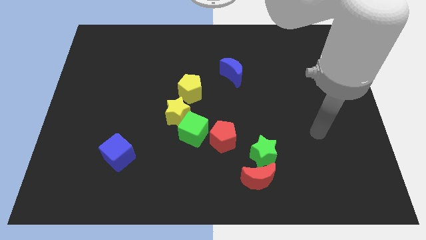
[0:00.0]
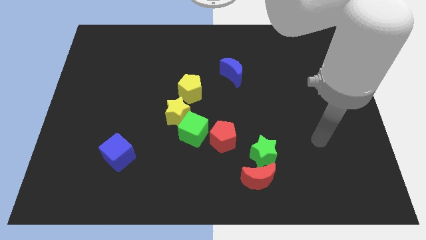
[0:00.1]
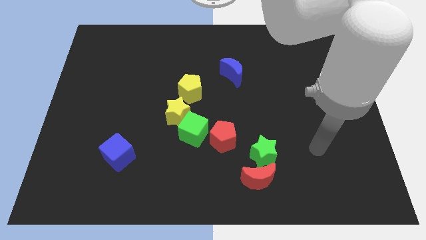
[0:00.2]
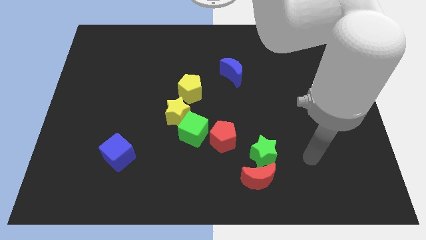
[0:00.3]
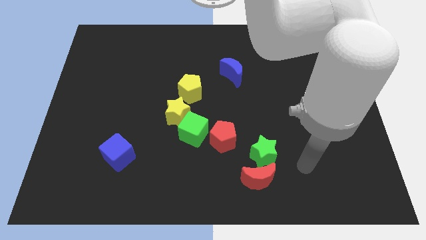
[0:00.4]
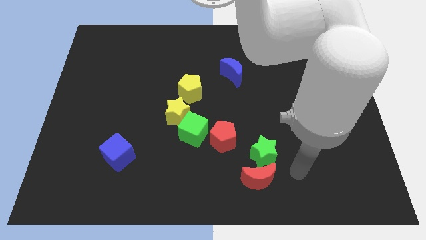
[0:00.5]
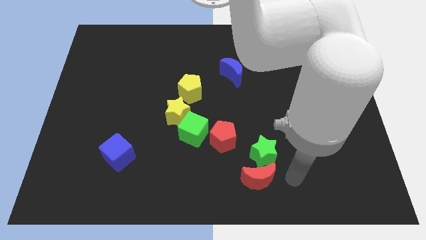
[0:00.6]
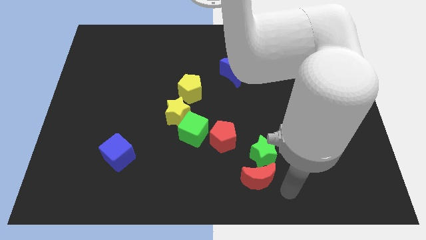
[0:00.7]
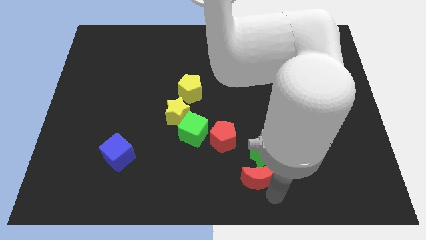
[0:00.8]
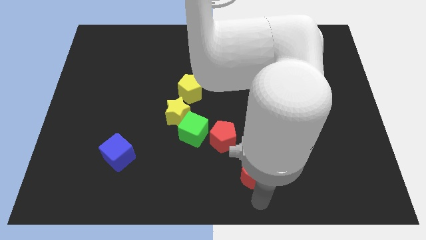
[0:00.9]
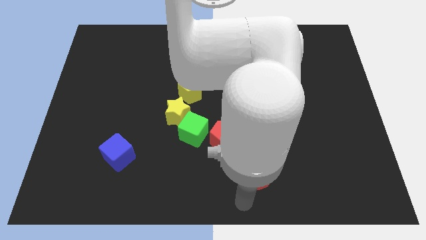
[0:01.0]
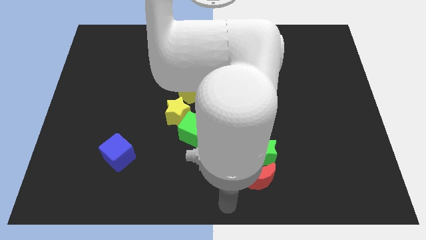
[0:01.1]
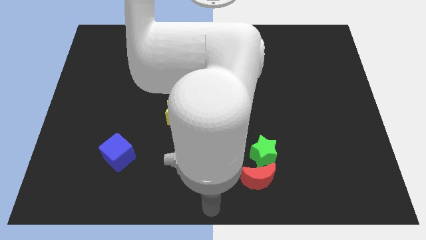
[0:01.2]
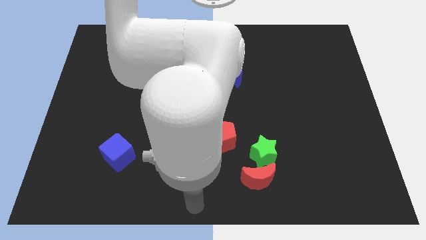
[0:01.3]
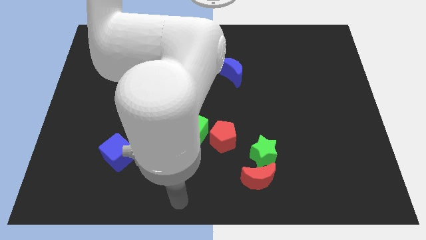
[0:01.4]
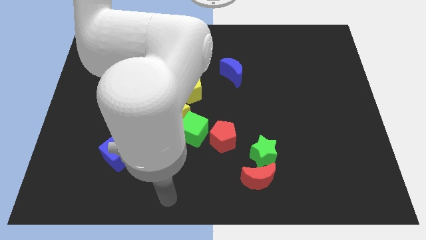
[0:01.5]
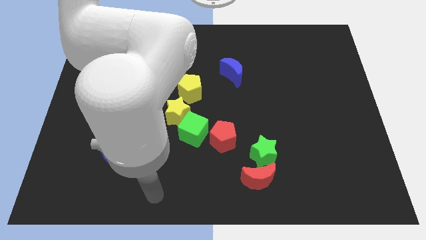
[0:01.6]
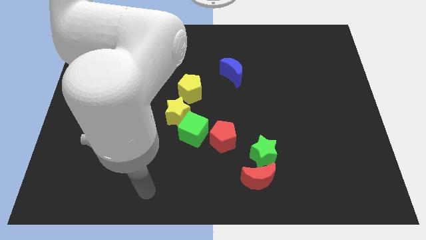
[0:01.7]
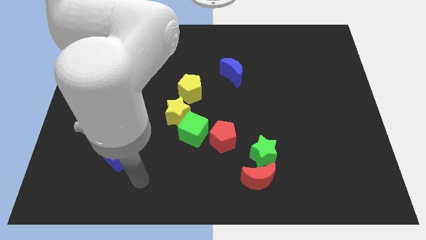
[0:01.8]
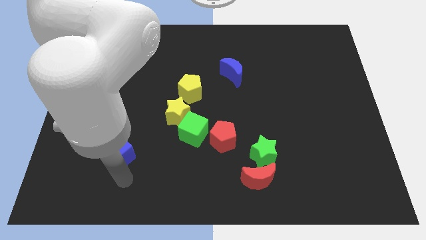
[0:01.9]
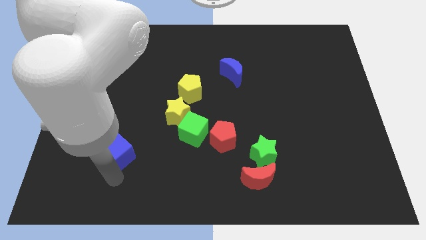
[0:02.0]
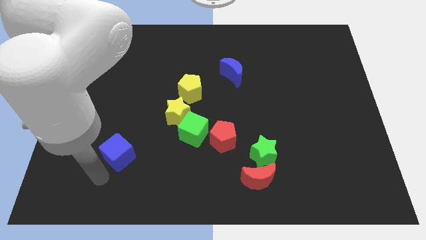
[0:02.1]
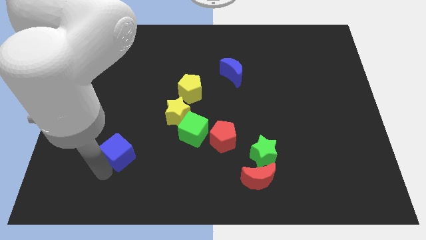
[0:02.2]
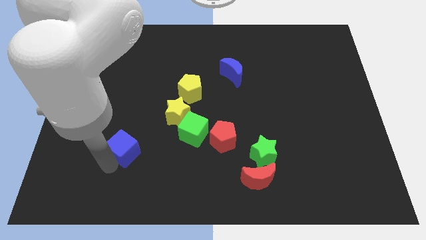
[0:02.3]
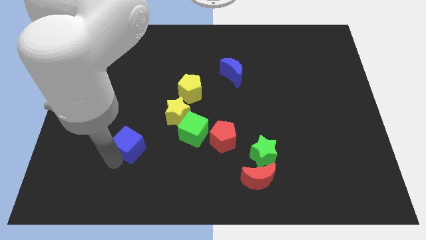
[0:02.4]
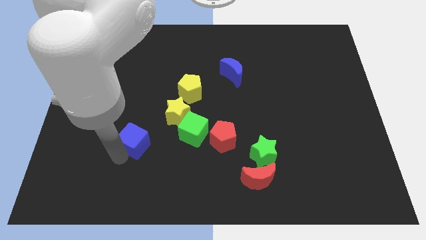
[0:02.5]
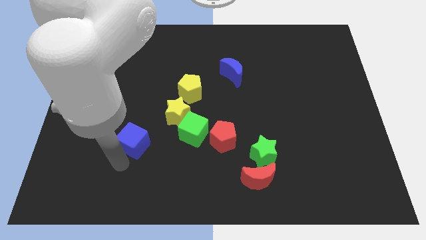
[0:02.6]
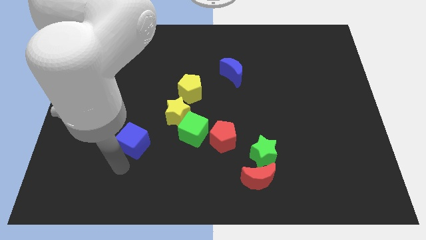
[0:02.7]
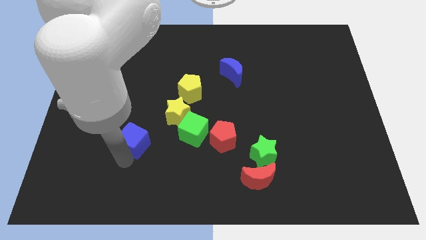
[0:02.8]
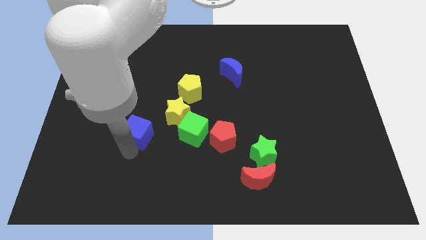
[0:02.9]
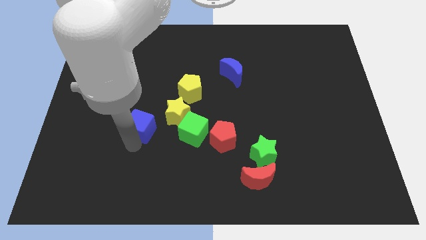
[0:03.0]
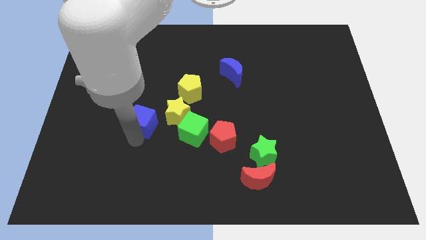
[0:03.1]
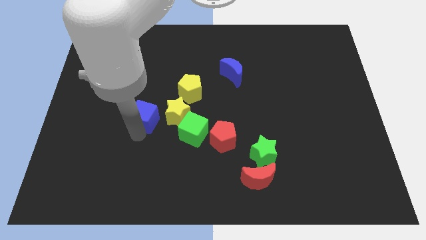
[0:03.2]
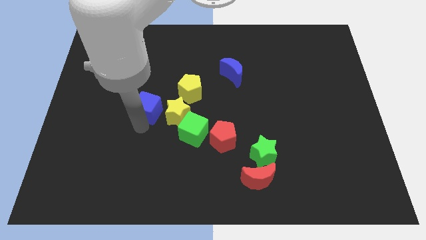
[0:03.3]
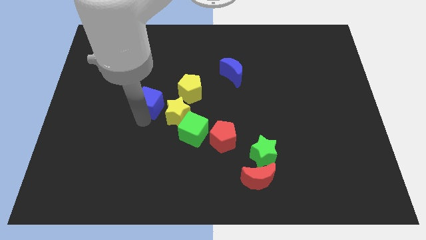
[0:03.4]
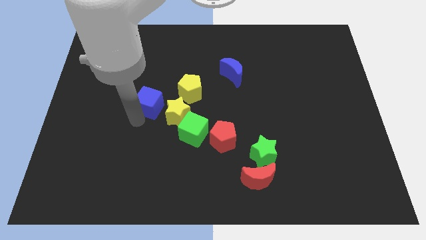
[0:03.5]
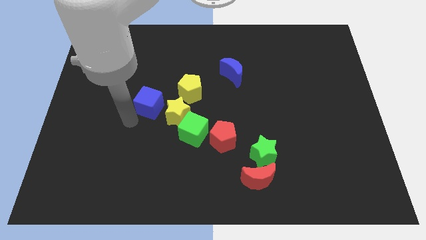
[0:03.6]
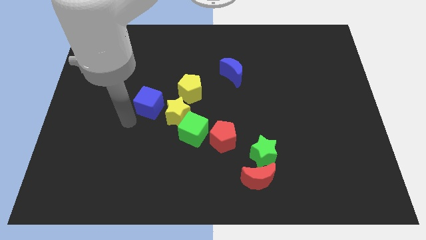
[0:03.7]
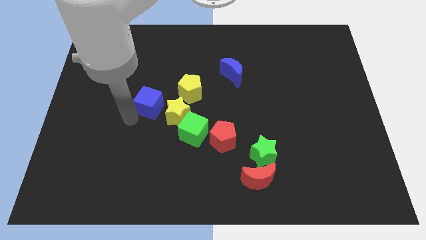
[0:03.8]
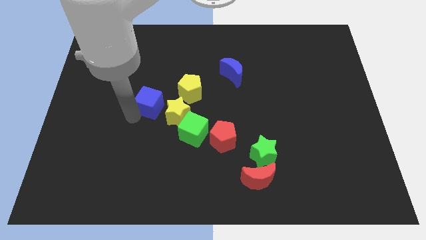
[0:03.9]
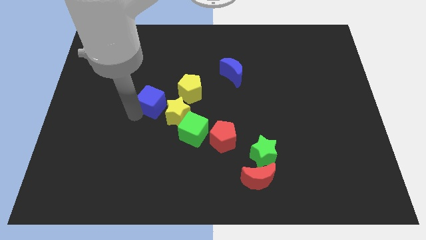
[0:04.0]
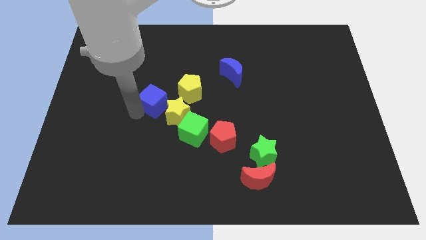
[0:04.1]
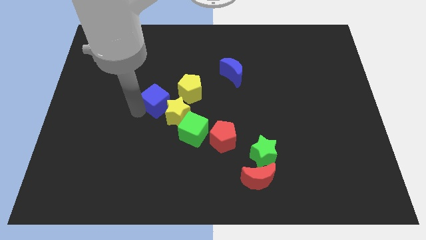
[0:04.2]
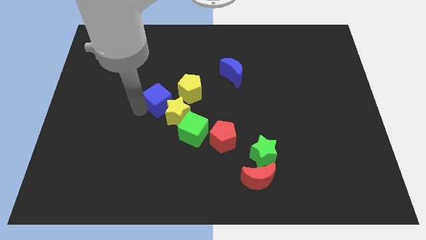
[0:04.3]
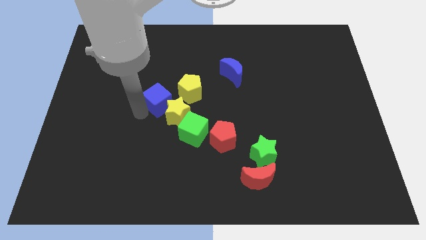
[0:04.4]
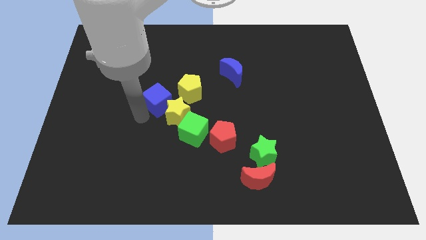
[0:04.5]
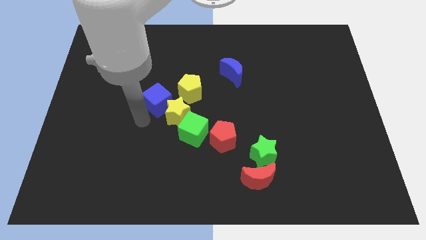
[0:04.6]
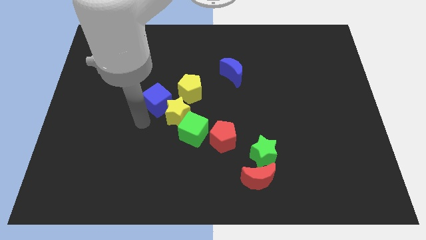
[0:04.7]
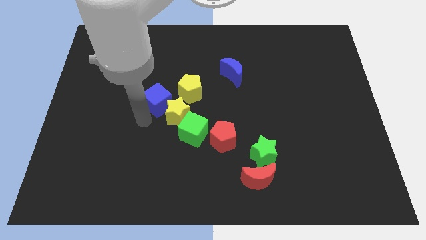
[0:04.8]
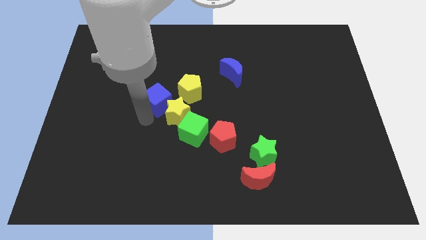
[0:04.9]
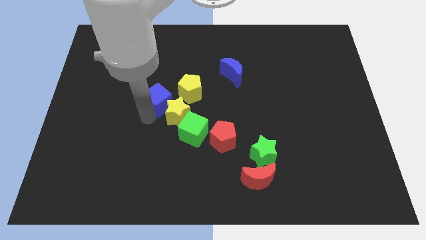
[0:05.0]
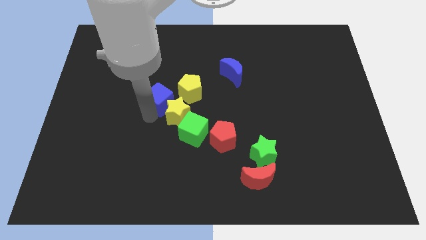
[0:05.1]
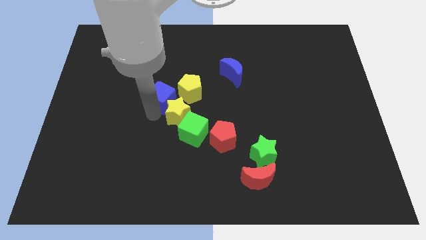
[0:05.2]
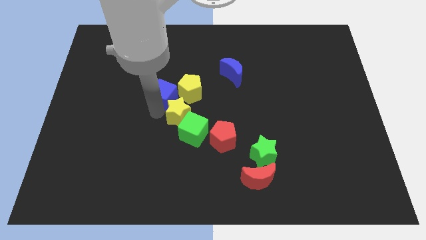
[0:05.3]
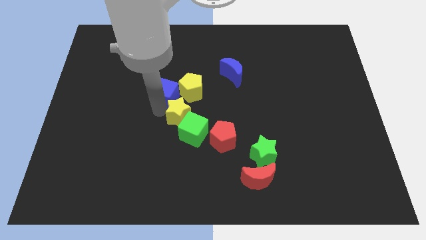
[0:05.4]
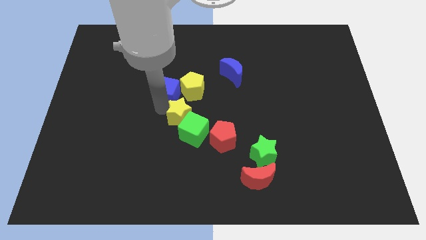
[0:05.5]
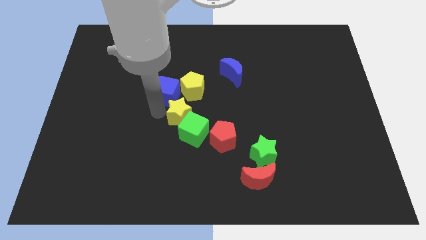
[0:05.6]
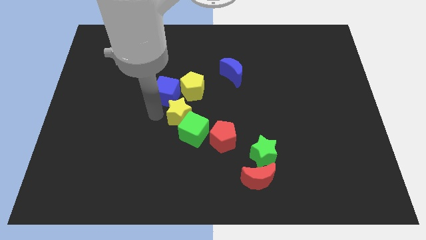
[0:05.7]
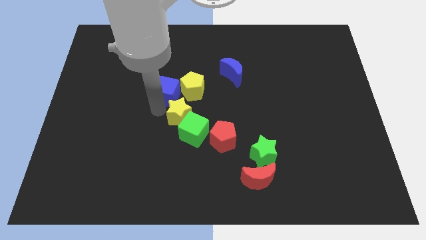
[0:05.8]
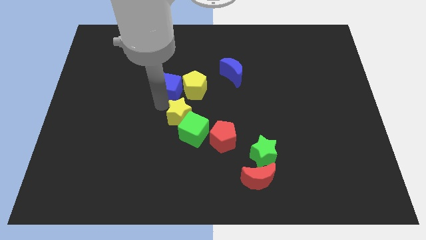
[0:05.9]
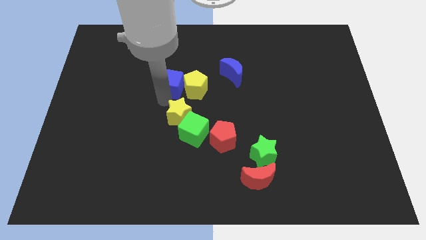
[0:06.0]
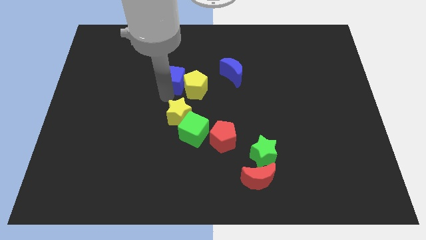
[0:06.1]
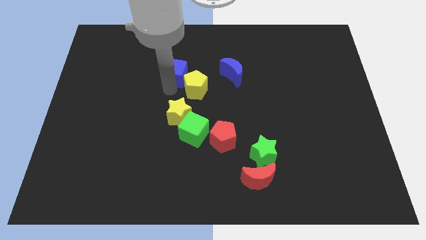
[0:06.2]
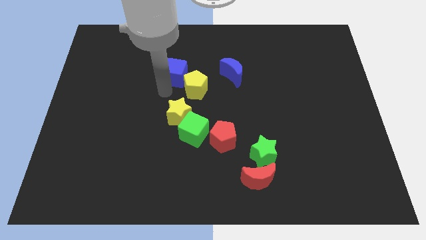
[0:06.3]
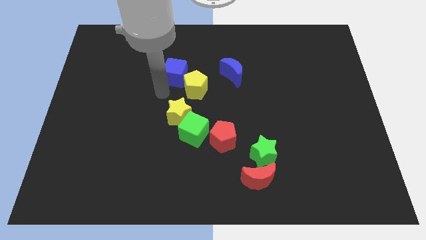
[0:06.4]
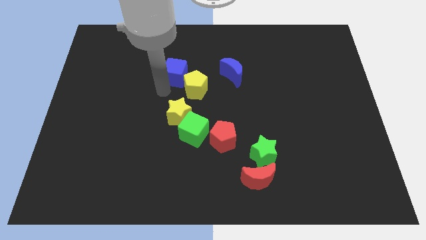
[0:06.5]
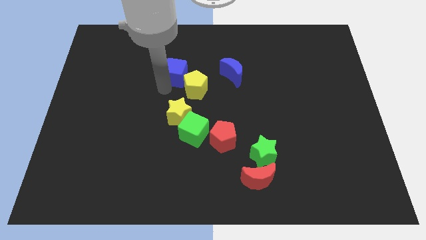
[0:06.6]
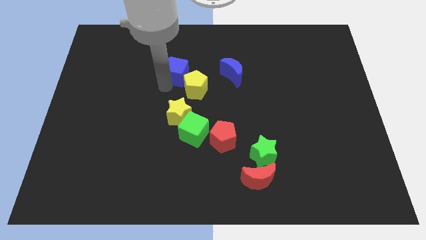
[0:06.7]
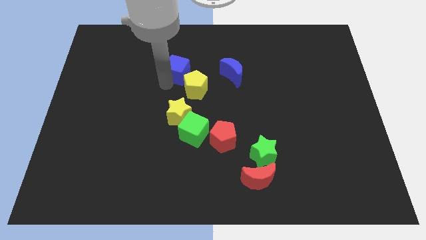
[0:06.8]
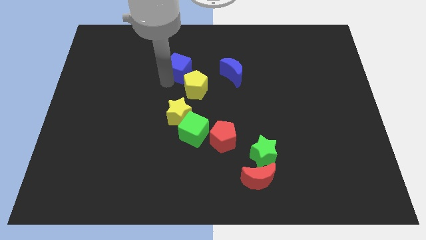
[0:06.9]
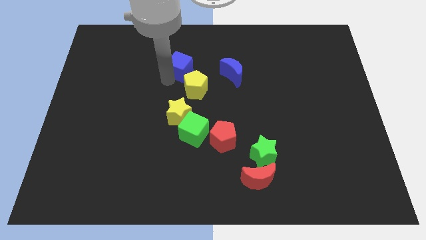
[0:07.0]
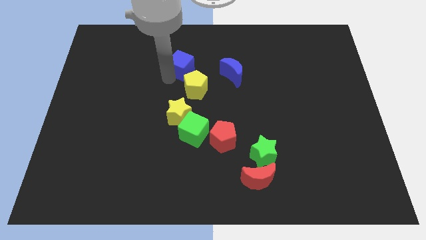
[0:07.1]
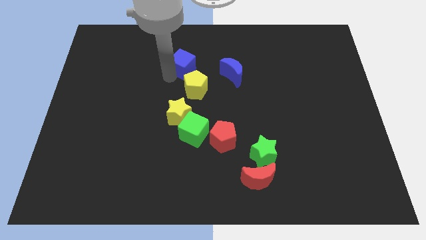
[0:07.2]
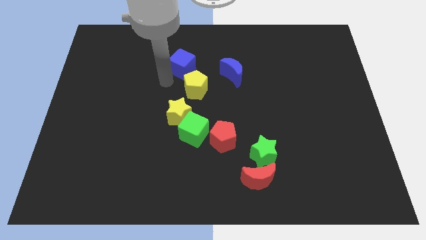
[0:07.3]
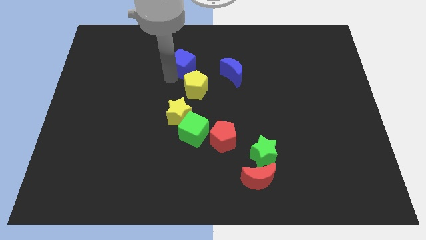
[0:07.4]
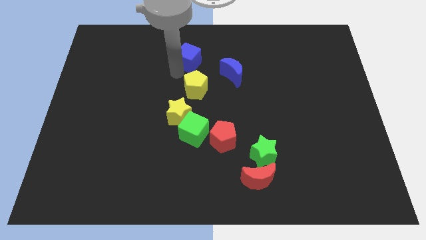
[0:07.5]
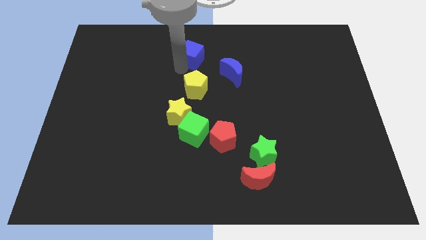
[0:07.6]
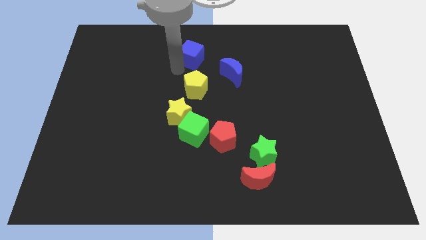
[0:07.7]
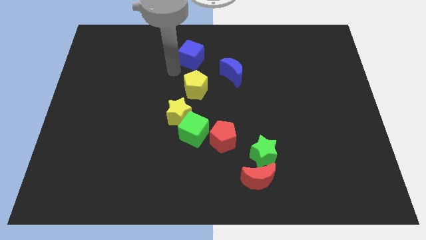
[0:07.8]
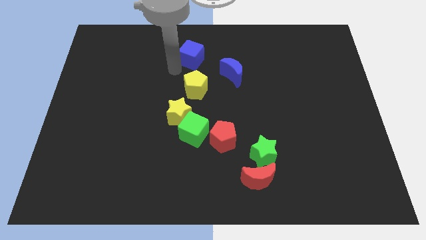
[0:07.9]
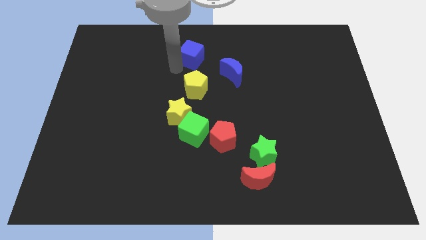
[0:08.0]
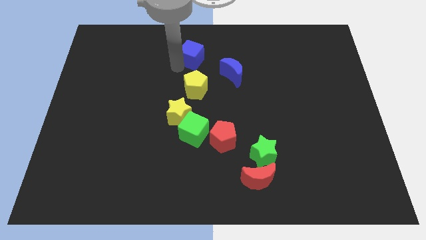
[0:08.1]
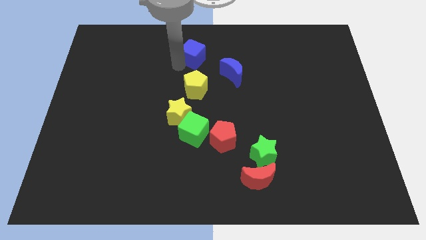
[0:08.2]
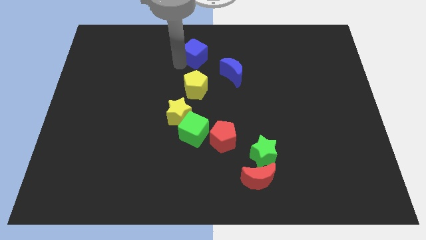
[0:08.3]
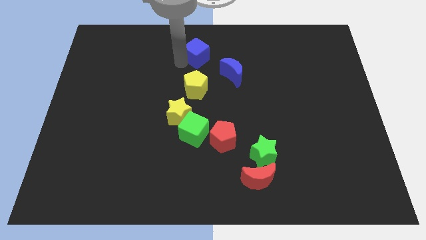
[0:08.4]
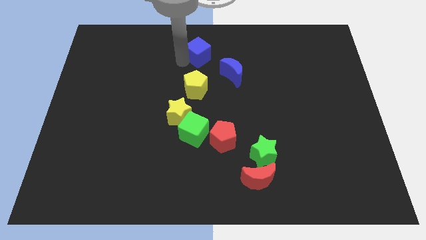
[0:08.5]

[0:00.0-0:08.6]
slide the blue cube to the top
